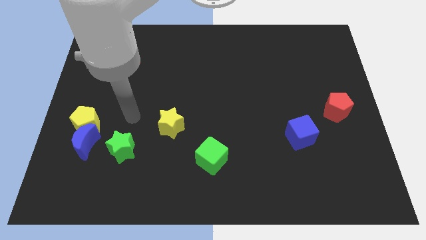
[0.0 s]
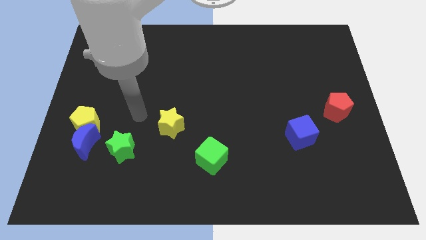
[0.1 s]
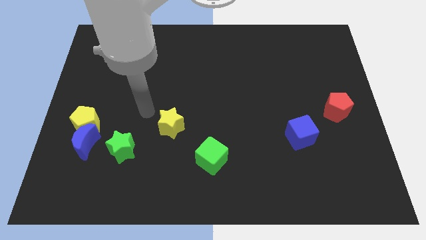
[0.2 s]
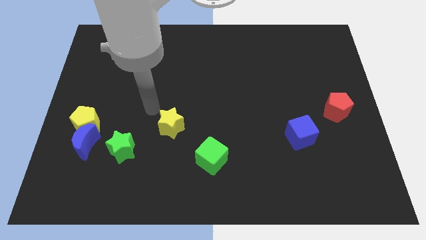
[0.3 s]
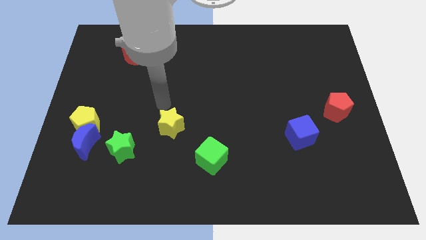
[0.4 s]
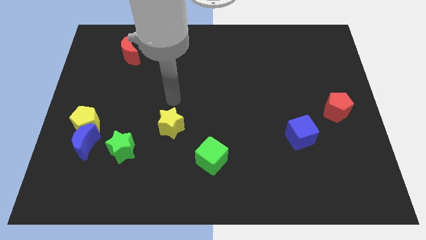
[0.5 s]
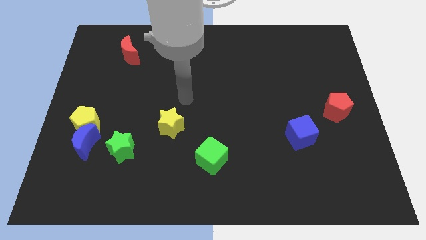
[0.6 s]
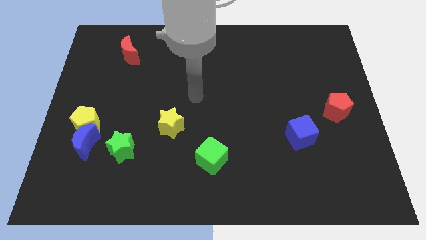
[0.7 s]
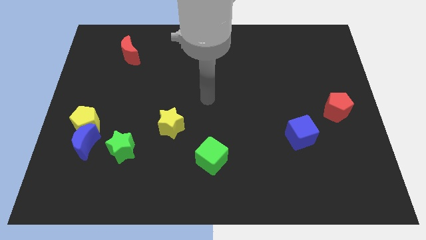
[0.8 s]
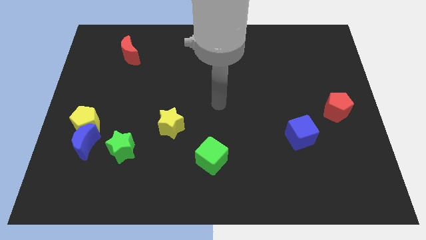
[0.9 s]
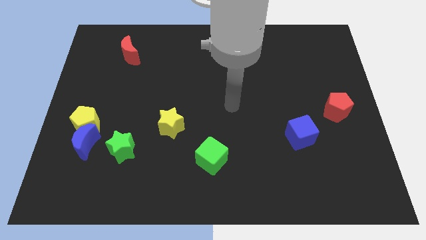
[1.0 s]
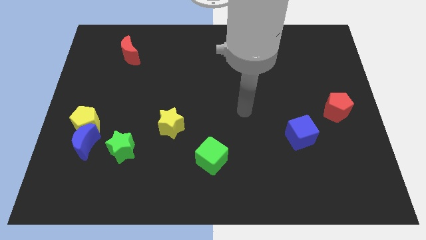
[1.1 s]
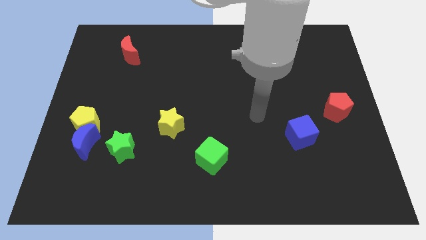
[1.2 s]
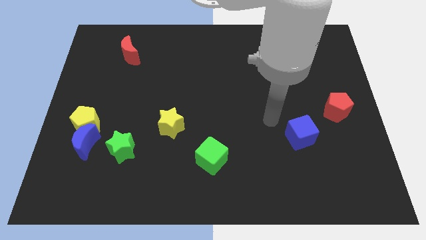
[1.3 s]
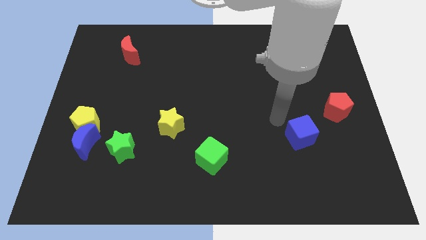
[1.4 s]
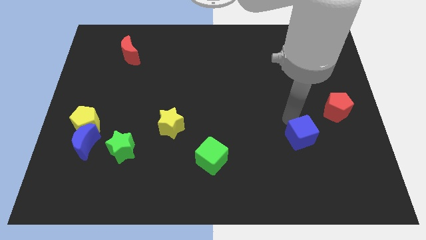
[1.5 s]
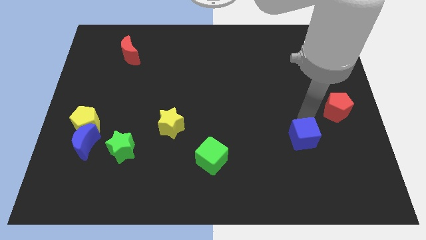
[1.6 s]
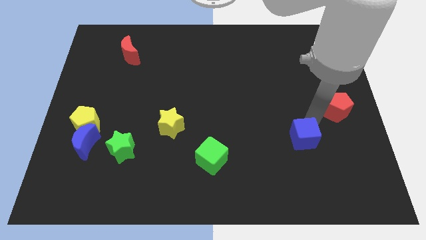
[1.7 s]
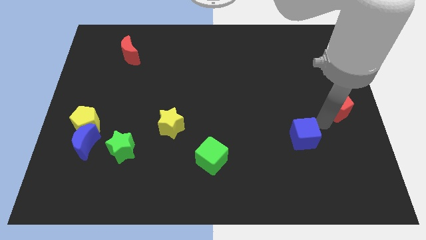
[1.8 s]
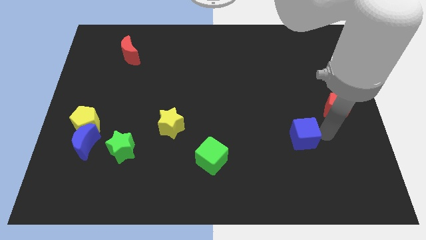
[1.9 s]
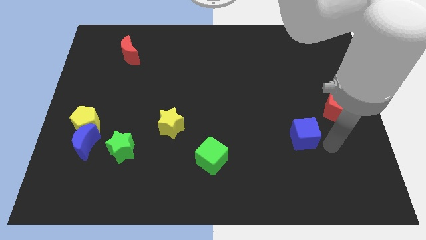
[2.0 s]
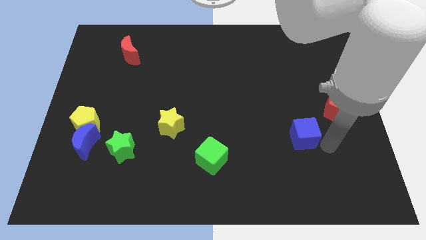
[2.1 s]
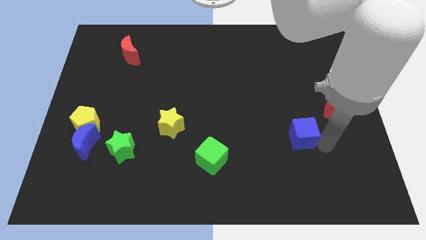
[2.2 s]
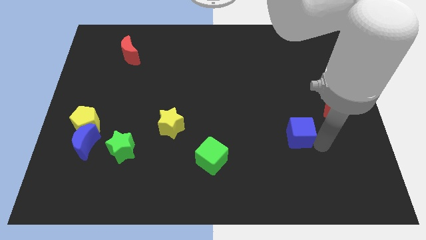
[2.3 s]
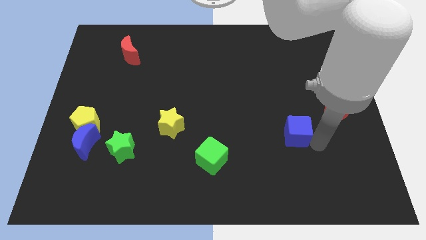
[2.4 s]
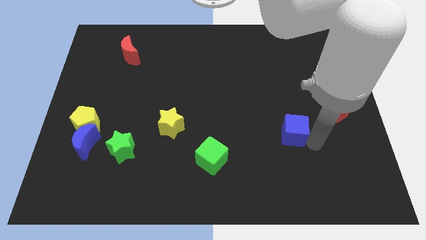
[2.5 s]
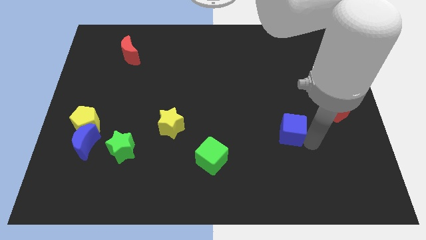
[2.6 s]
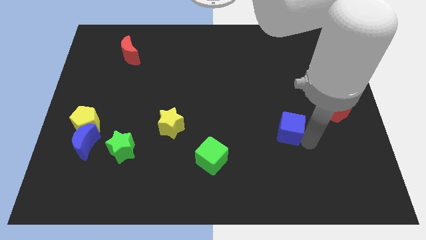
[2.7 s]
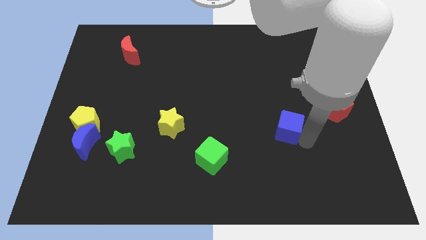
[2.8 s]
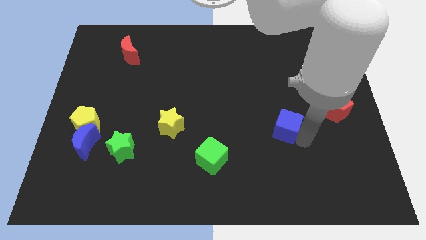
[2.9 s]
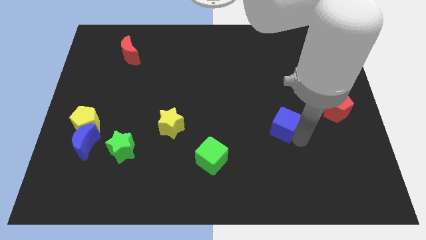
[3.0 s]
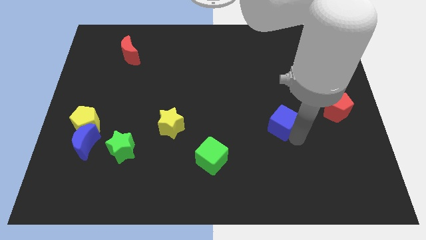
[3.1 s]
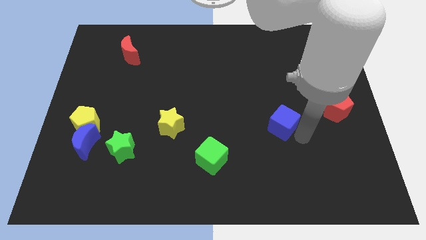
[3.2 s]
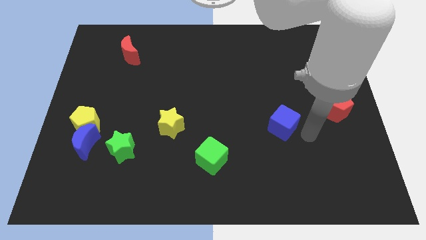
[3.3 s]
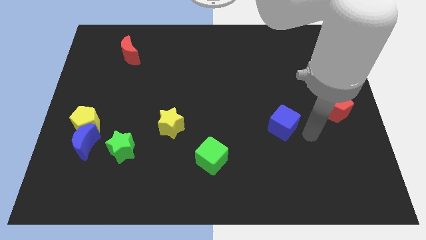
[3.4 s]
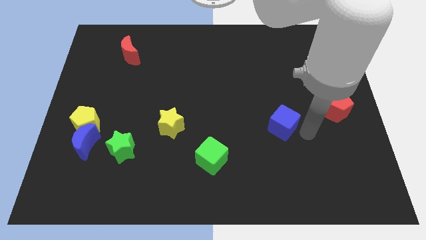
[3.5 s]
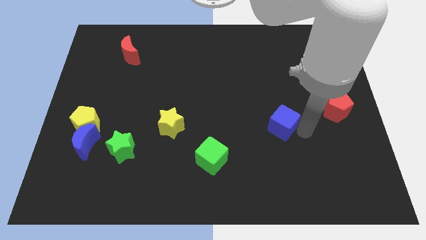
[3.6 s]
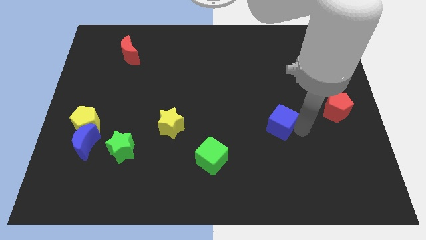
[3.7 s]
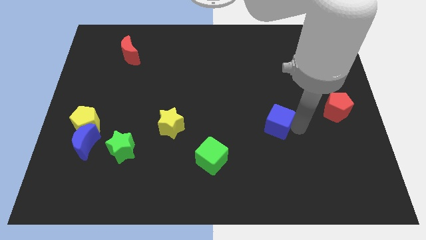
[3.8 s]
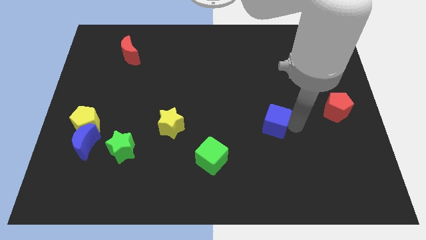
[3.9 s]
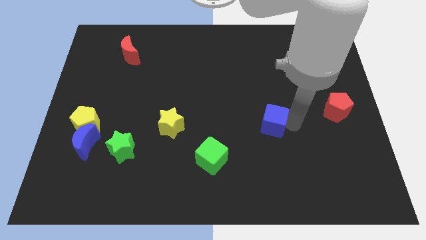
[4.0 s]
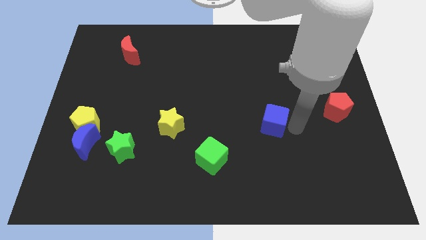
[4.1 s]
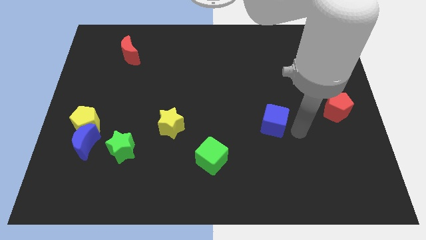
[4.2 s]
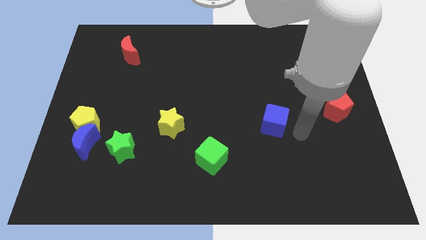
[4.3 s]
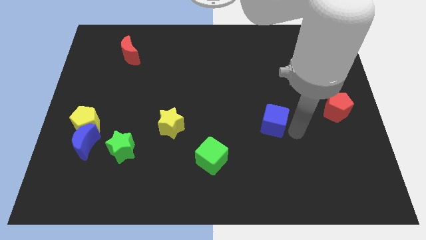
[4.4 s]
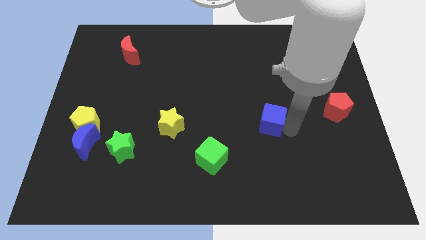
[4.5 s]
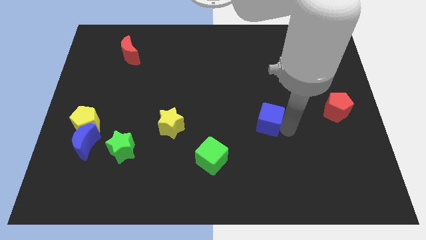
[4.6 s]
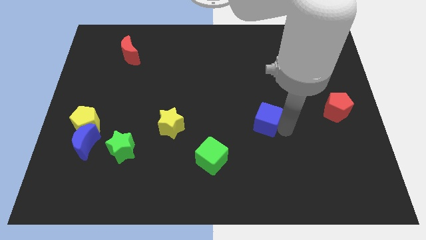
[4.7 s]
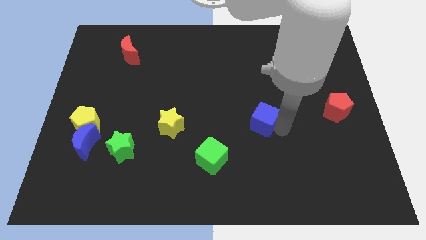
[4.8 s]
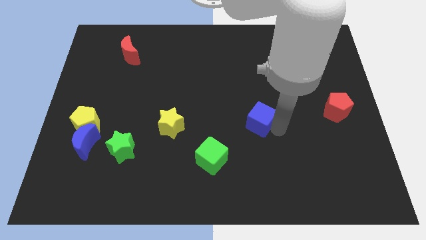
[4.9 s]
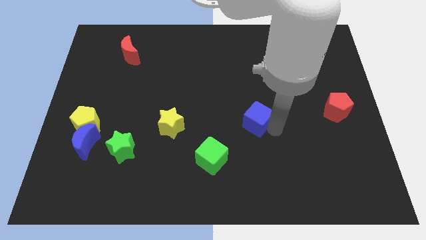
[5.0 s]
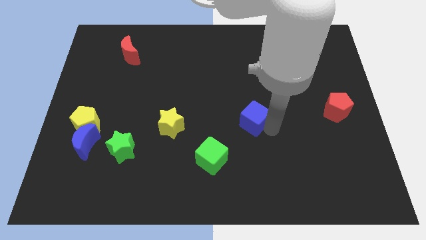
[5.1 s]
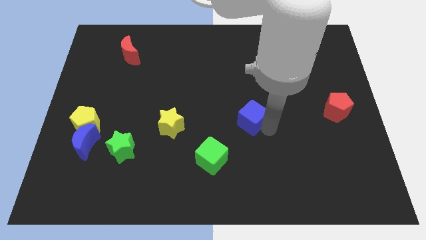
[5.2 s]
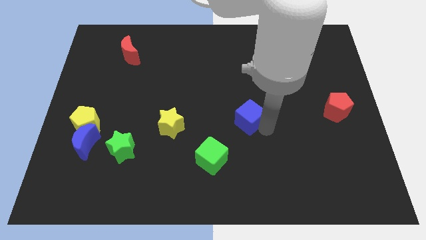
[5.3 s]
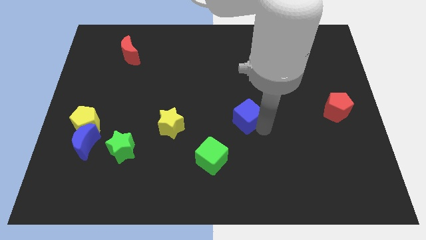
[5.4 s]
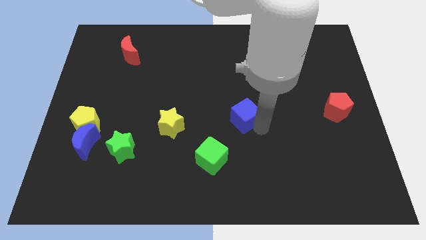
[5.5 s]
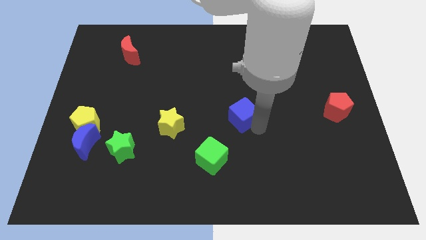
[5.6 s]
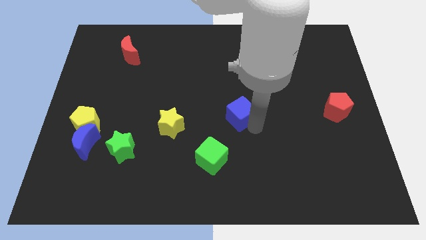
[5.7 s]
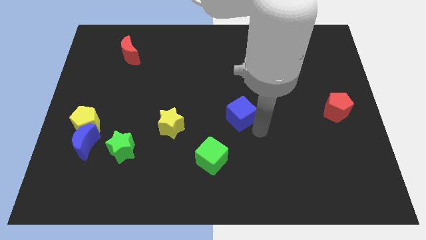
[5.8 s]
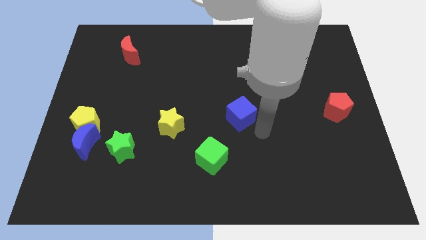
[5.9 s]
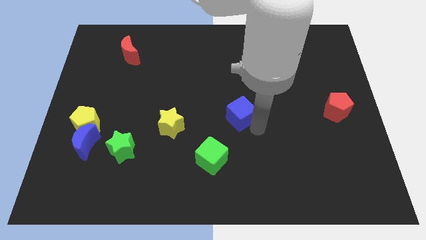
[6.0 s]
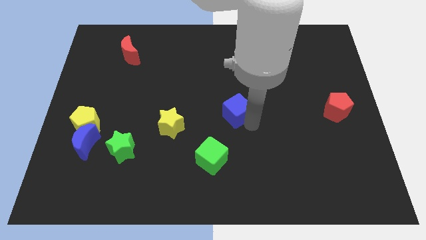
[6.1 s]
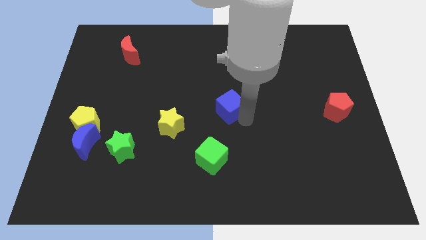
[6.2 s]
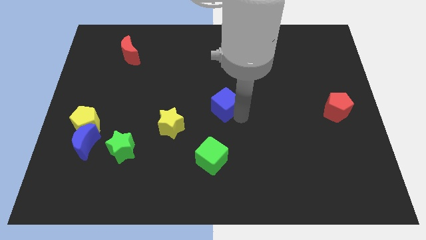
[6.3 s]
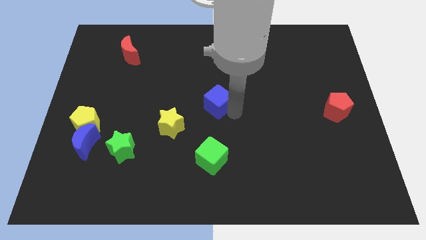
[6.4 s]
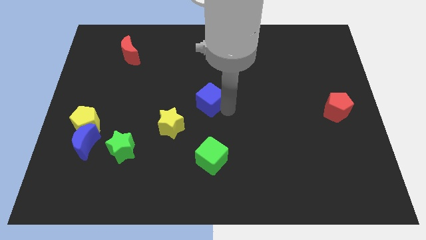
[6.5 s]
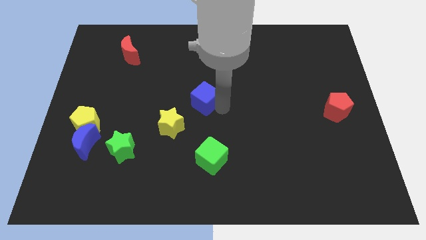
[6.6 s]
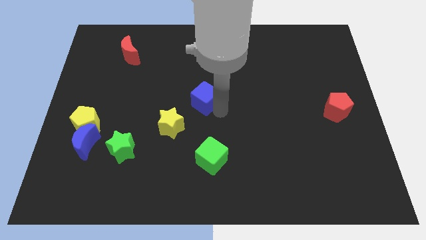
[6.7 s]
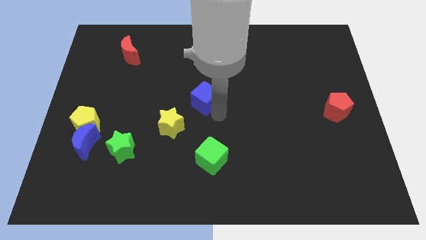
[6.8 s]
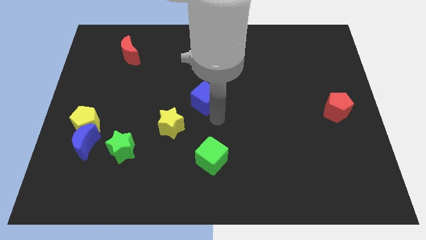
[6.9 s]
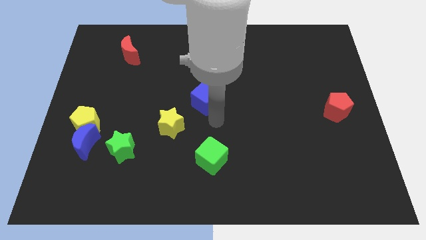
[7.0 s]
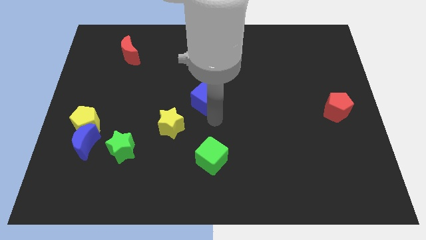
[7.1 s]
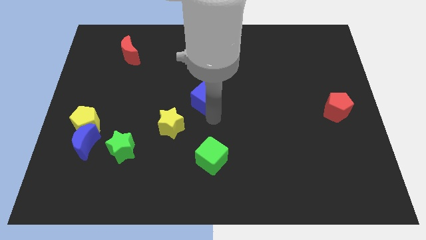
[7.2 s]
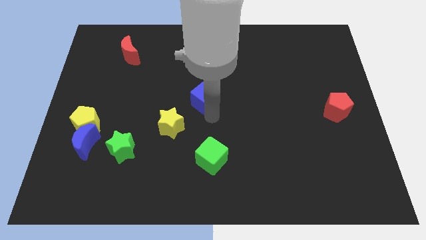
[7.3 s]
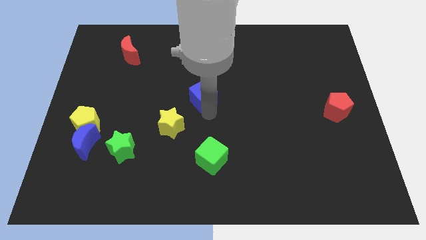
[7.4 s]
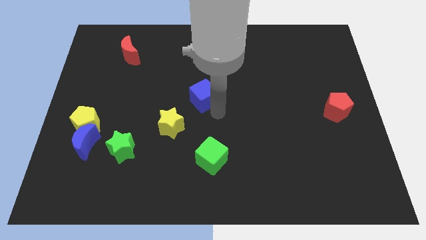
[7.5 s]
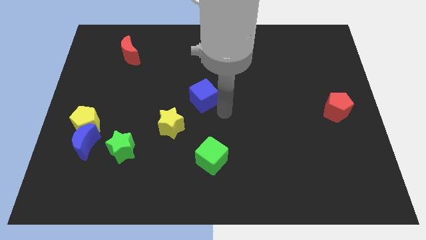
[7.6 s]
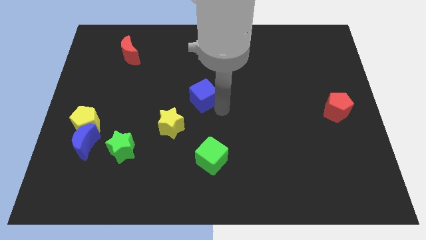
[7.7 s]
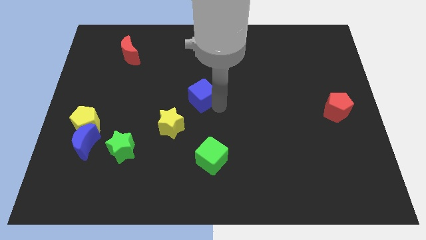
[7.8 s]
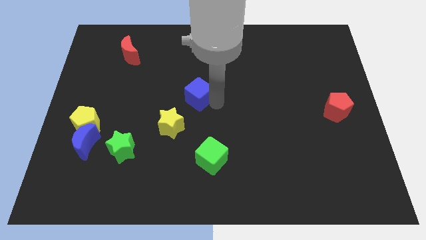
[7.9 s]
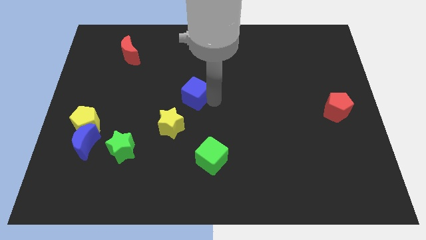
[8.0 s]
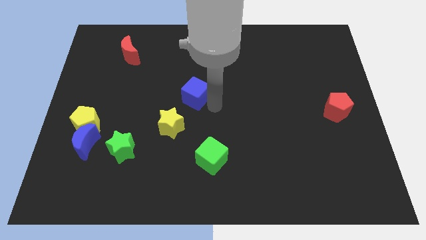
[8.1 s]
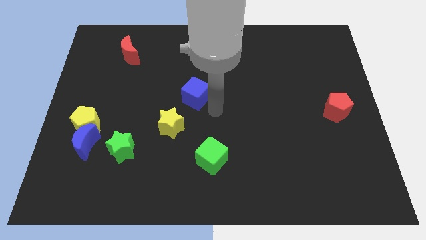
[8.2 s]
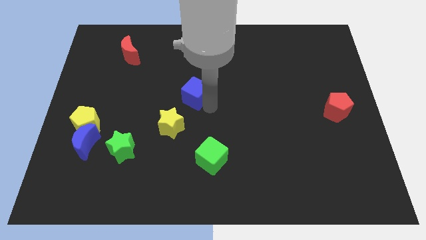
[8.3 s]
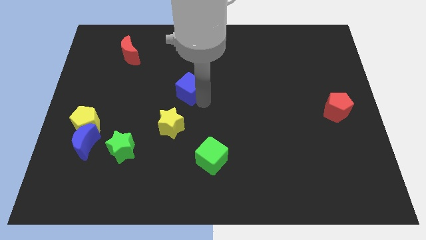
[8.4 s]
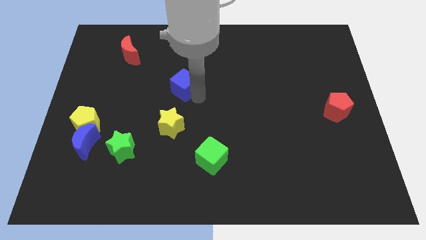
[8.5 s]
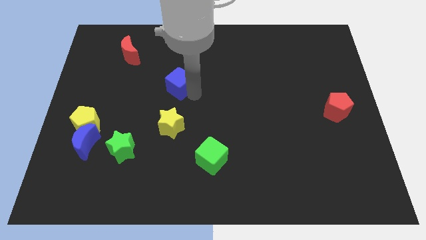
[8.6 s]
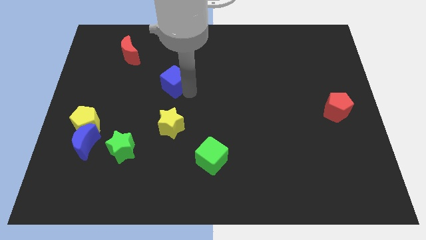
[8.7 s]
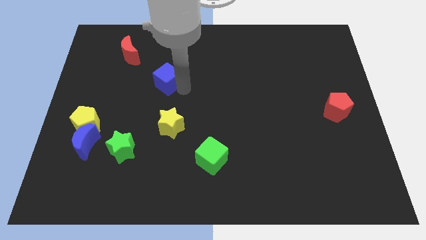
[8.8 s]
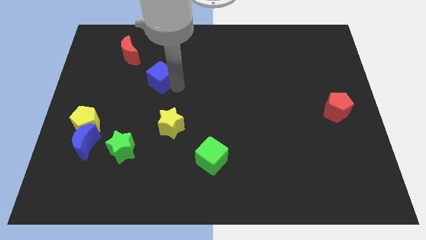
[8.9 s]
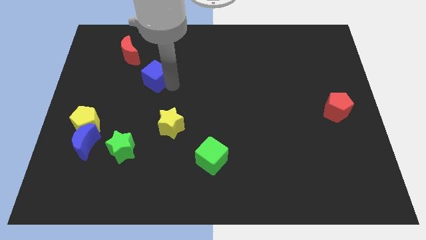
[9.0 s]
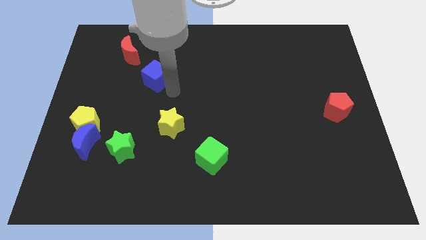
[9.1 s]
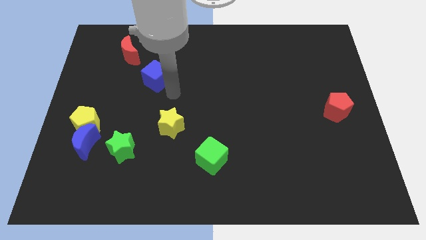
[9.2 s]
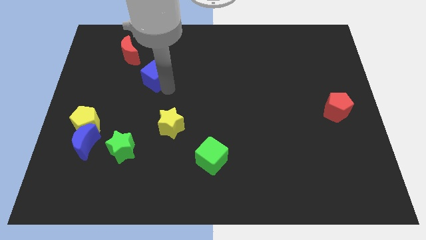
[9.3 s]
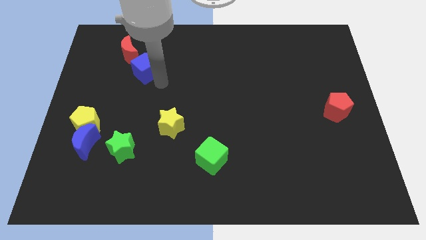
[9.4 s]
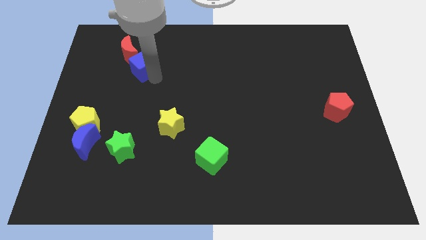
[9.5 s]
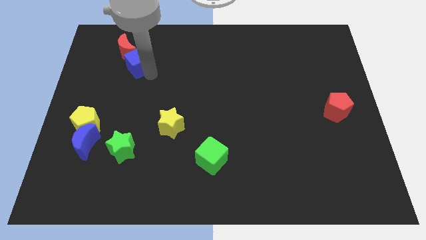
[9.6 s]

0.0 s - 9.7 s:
move the blue cube to the red moon
